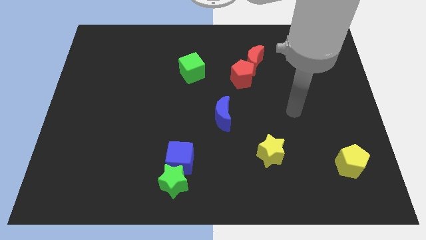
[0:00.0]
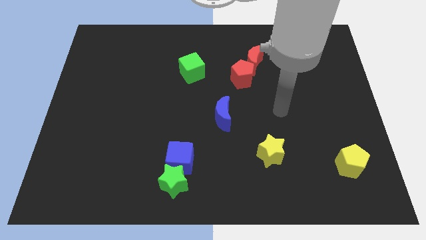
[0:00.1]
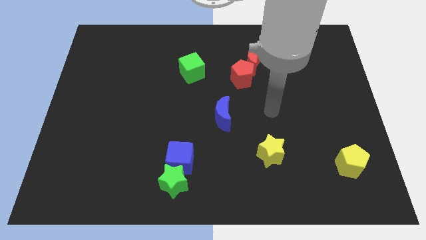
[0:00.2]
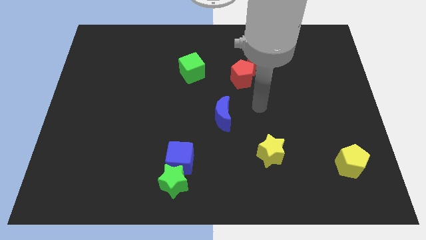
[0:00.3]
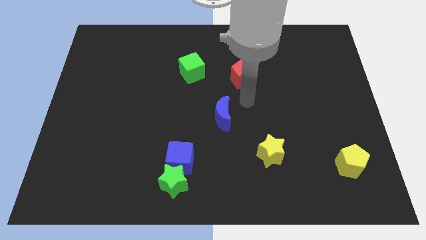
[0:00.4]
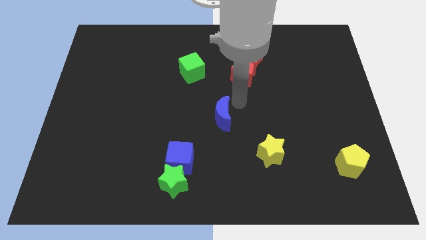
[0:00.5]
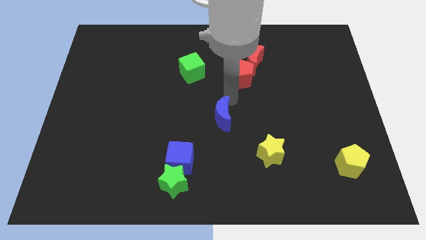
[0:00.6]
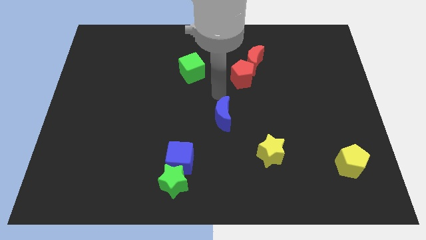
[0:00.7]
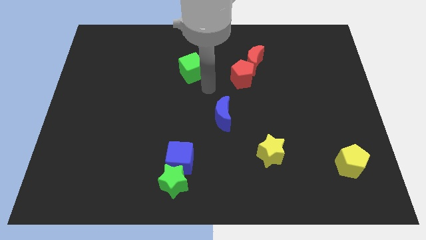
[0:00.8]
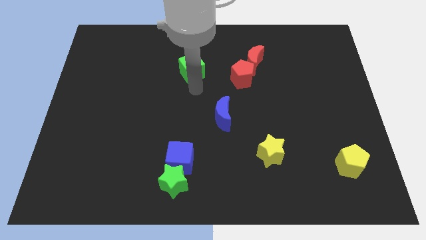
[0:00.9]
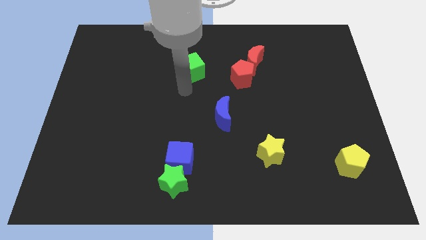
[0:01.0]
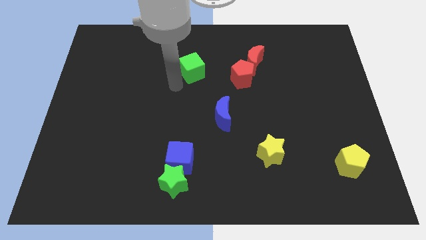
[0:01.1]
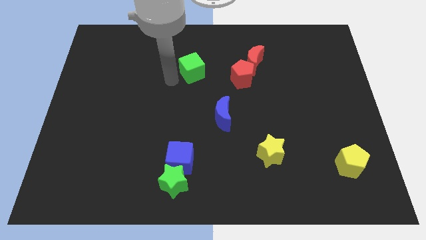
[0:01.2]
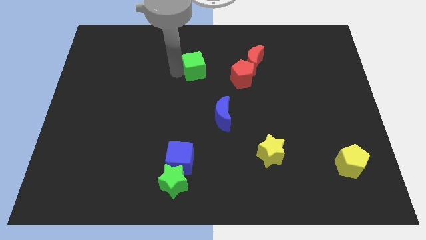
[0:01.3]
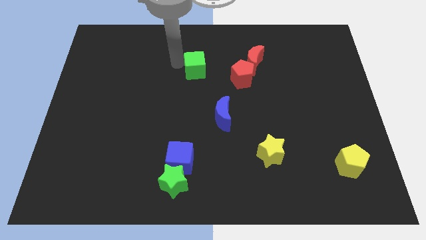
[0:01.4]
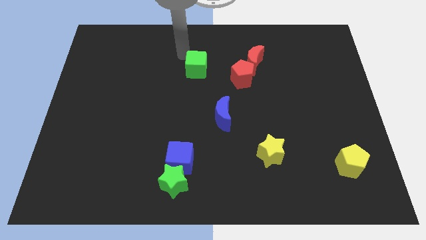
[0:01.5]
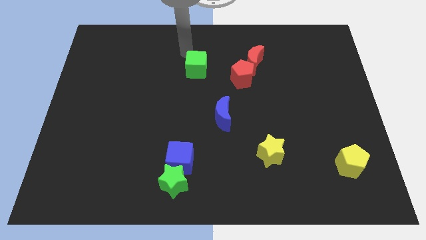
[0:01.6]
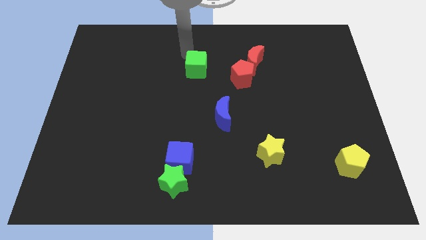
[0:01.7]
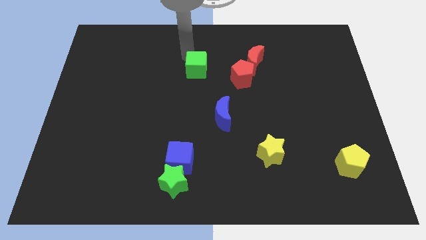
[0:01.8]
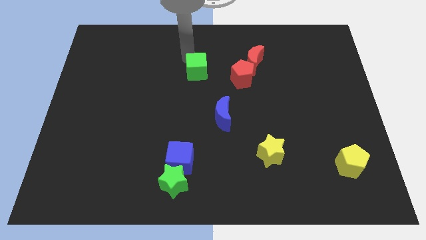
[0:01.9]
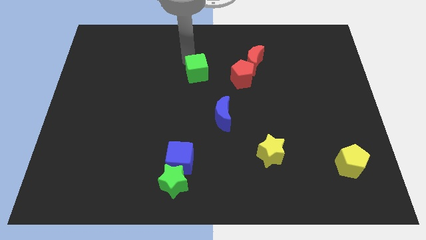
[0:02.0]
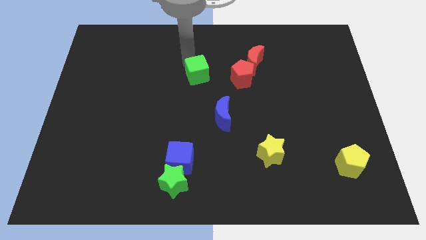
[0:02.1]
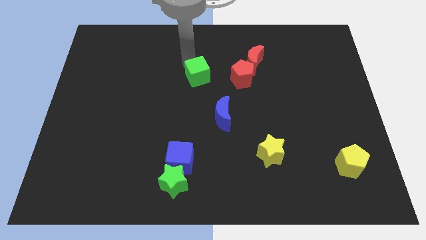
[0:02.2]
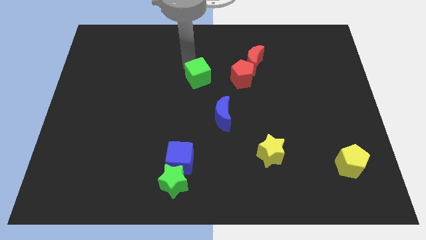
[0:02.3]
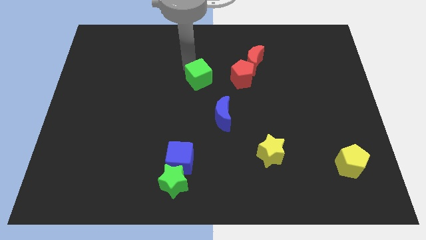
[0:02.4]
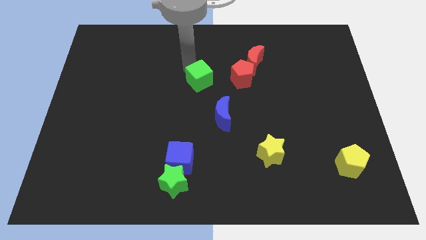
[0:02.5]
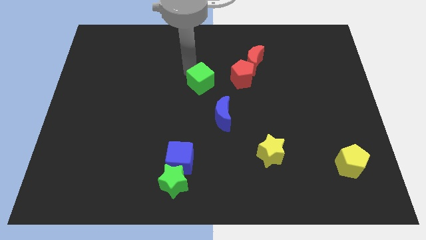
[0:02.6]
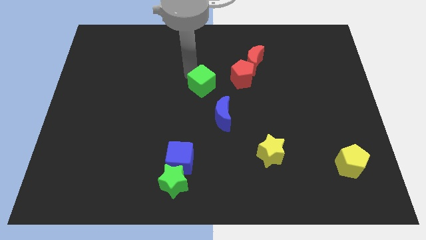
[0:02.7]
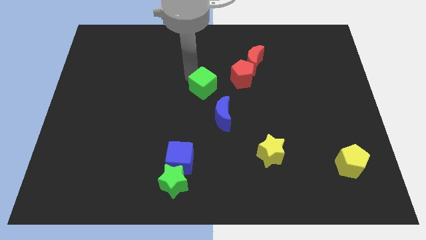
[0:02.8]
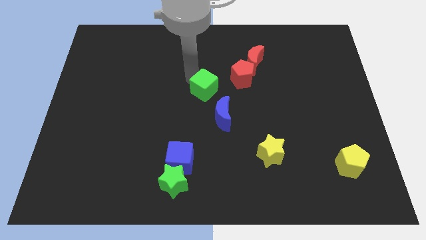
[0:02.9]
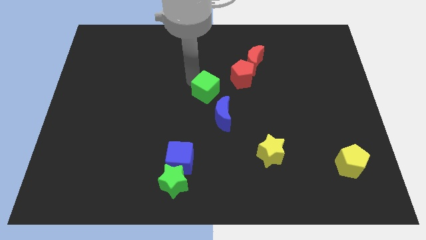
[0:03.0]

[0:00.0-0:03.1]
push the green cube a little bit diagonally downwards and right

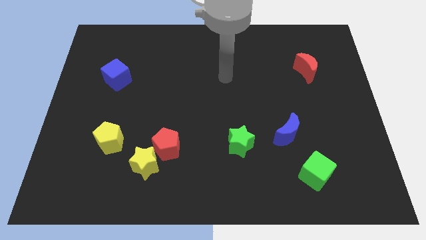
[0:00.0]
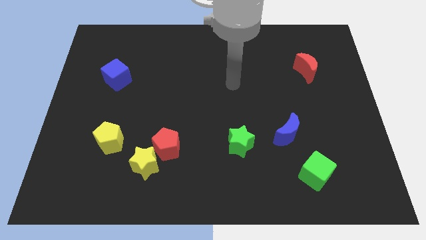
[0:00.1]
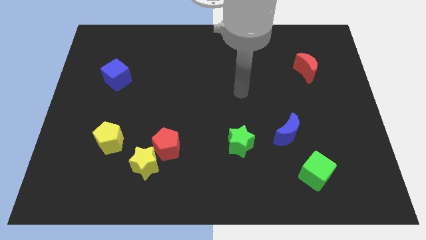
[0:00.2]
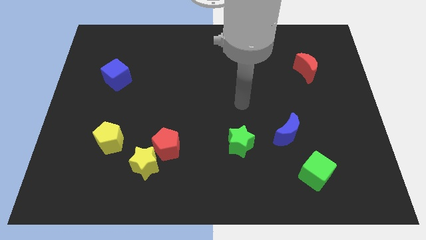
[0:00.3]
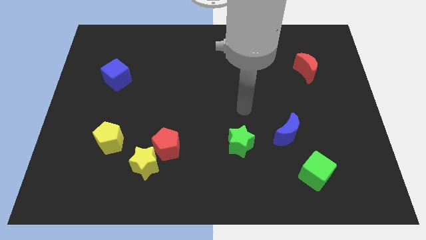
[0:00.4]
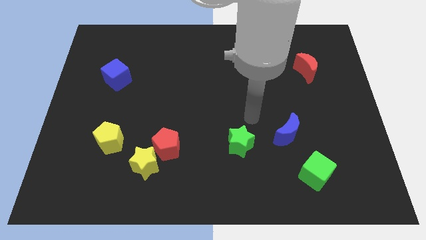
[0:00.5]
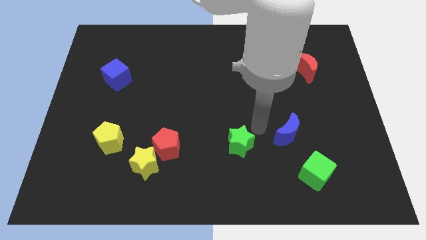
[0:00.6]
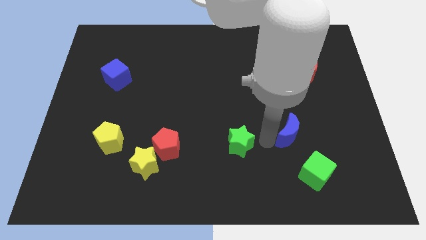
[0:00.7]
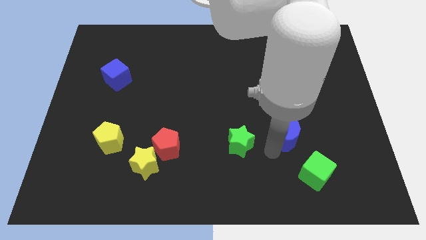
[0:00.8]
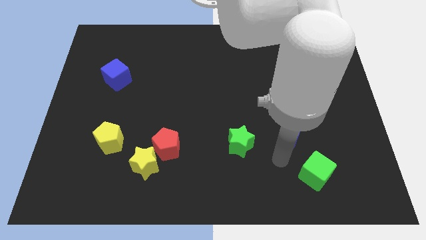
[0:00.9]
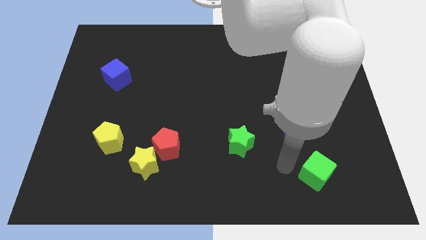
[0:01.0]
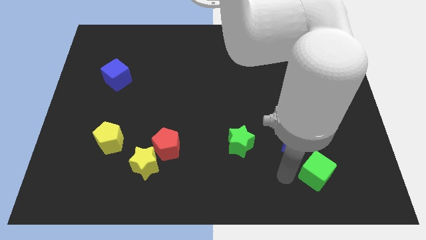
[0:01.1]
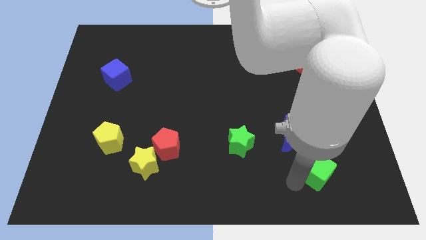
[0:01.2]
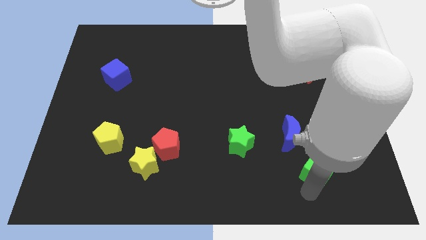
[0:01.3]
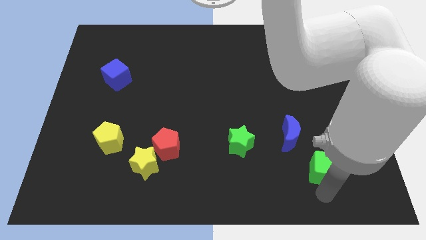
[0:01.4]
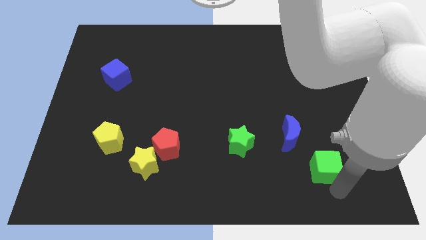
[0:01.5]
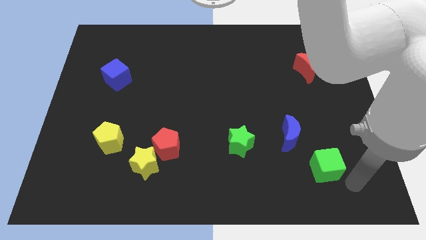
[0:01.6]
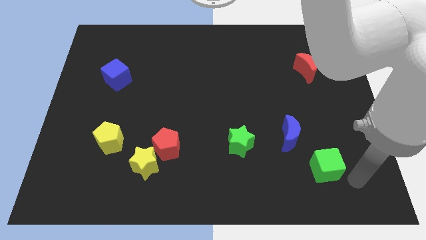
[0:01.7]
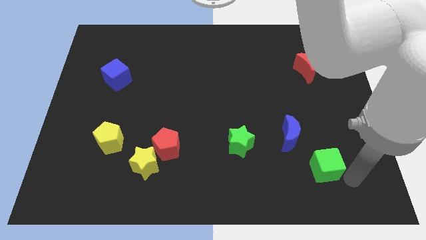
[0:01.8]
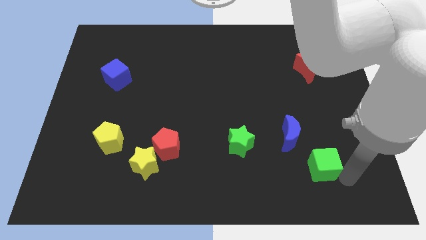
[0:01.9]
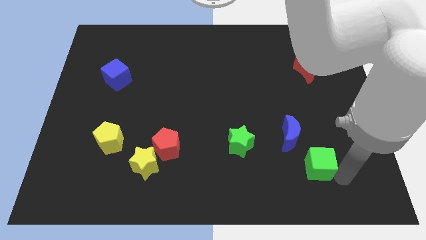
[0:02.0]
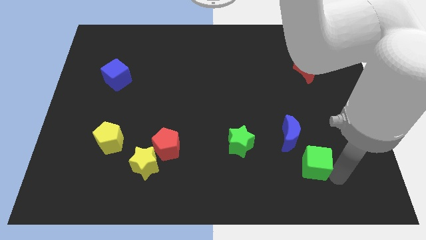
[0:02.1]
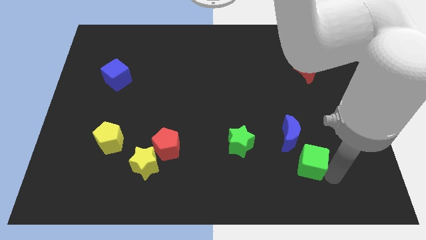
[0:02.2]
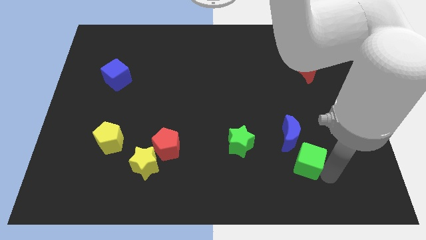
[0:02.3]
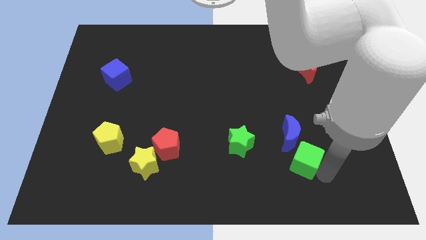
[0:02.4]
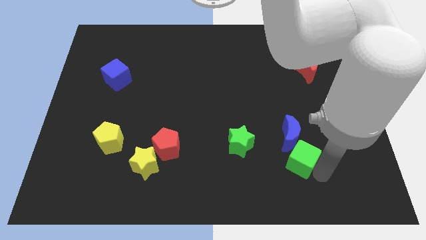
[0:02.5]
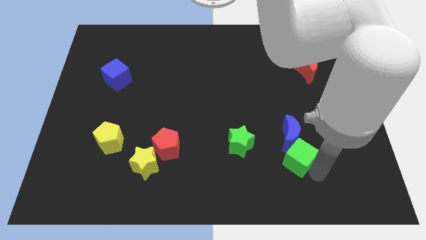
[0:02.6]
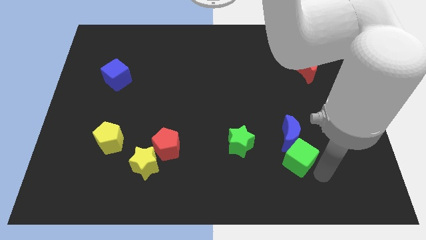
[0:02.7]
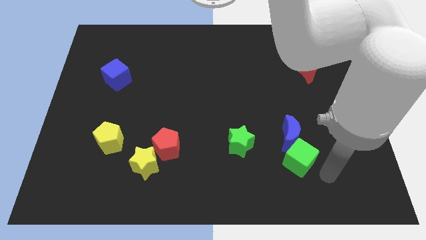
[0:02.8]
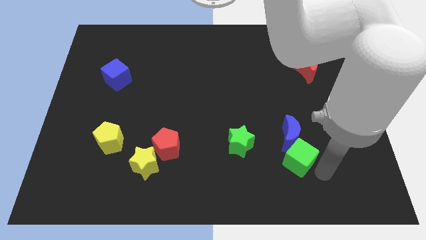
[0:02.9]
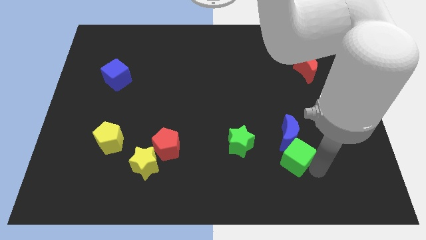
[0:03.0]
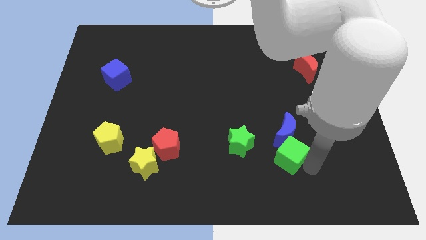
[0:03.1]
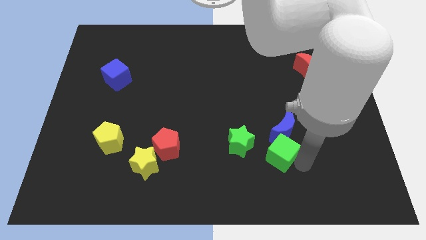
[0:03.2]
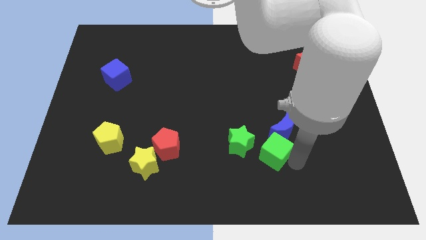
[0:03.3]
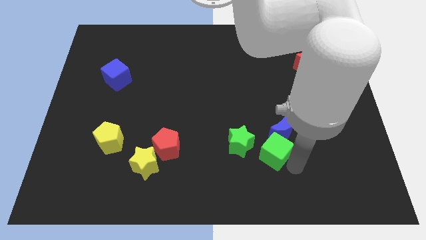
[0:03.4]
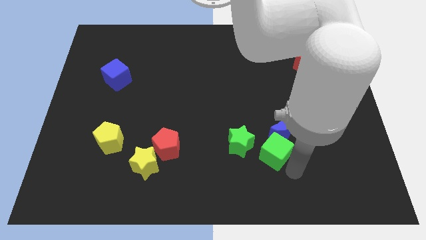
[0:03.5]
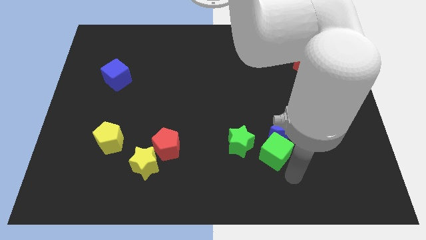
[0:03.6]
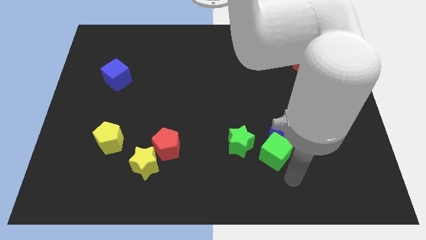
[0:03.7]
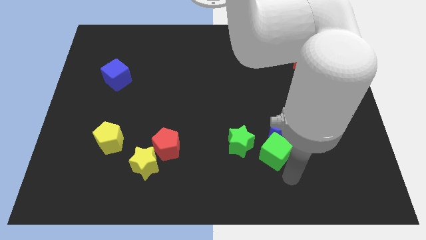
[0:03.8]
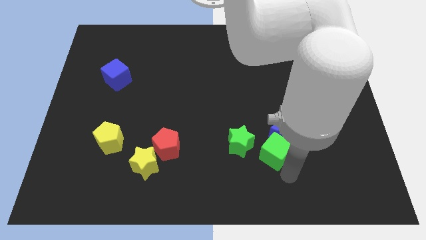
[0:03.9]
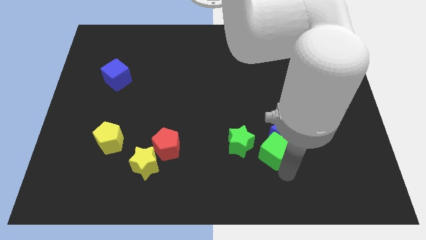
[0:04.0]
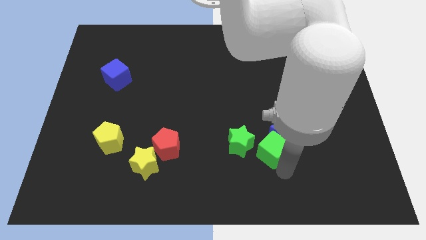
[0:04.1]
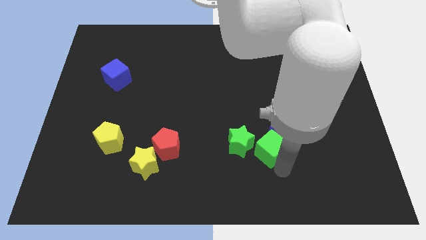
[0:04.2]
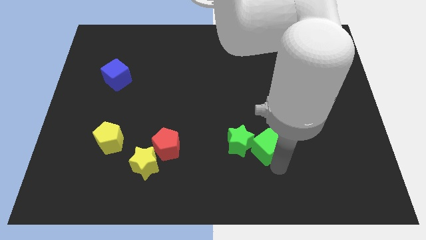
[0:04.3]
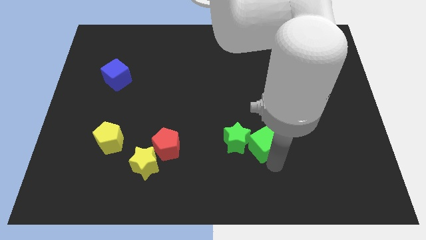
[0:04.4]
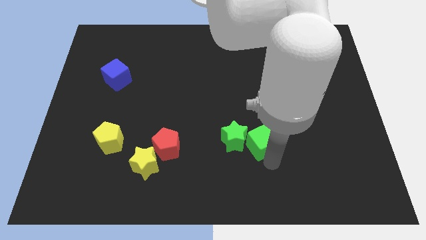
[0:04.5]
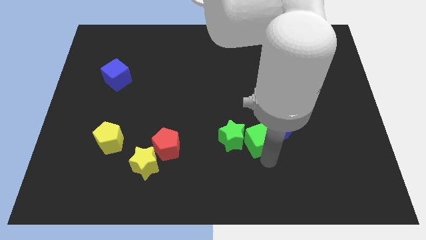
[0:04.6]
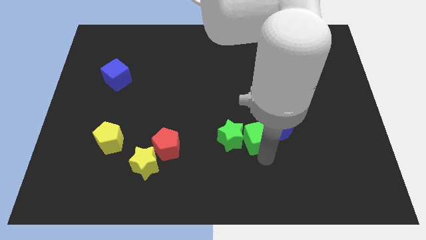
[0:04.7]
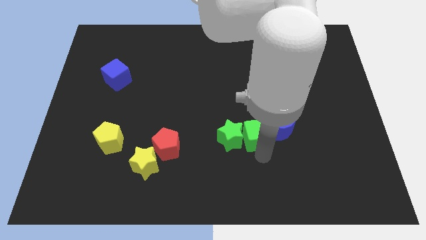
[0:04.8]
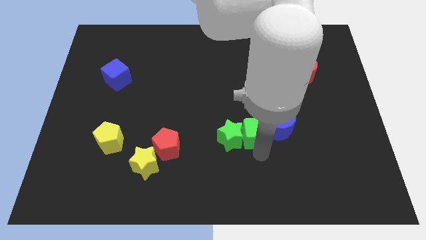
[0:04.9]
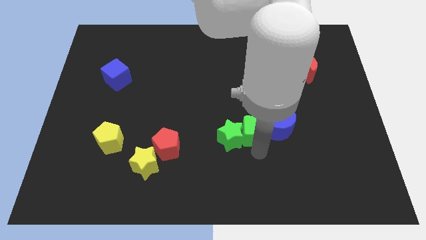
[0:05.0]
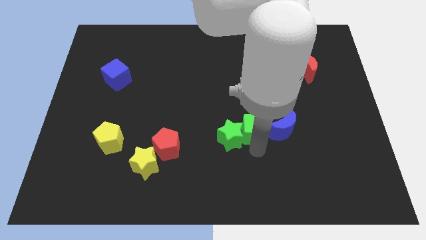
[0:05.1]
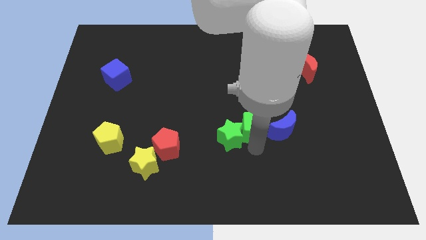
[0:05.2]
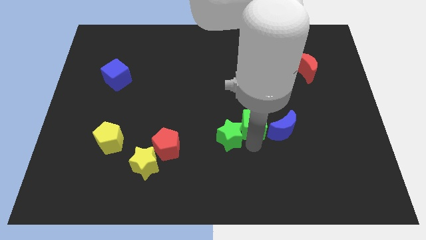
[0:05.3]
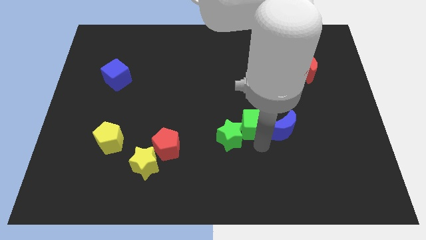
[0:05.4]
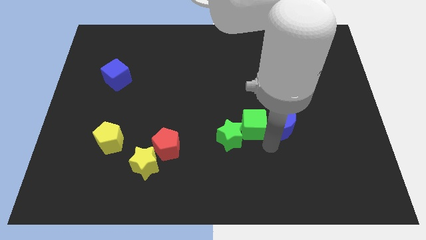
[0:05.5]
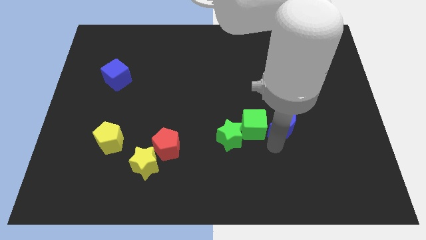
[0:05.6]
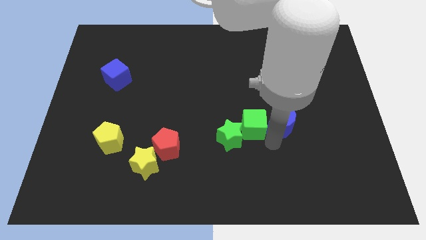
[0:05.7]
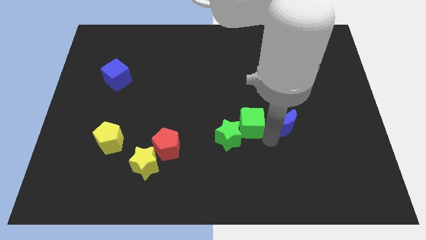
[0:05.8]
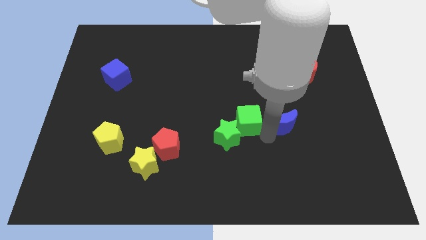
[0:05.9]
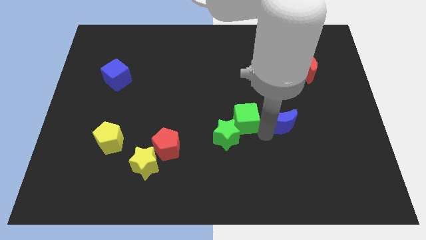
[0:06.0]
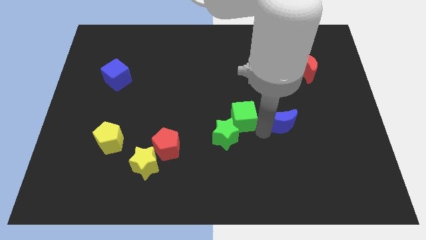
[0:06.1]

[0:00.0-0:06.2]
push the green cube diagonally upwards and to the left
